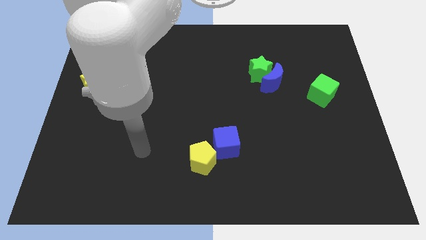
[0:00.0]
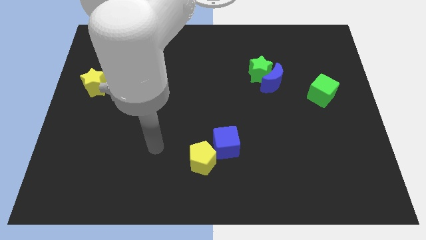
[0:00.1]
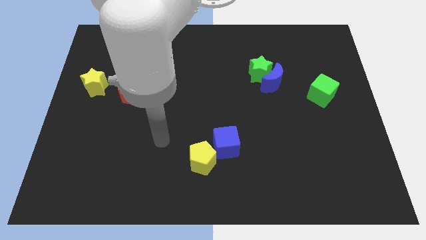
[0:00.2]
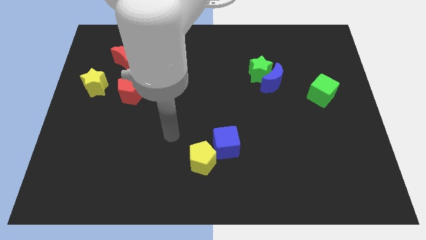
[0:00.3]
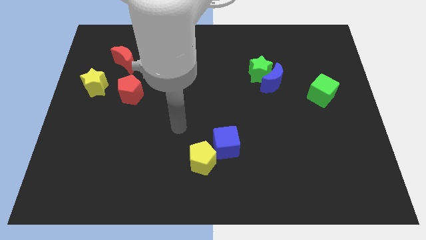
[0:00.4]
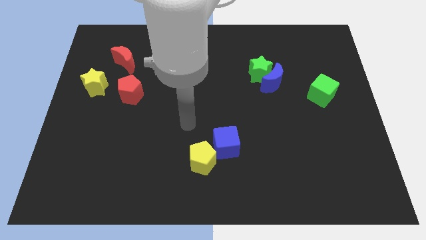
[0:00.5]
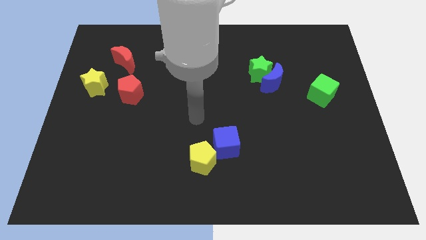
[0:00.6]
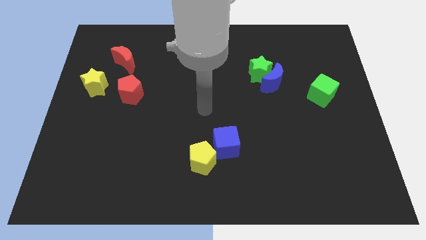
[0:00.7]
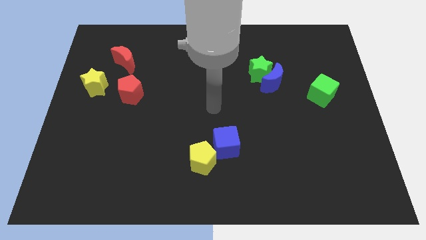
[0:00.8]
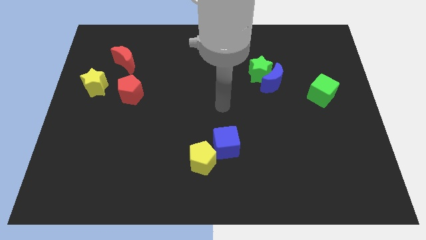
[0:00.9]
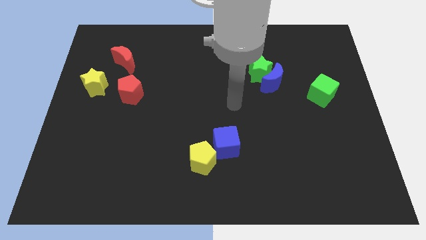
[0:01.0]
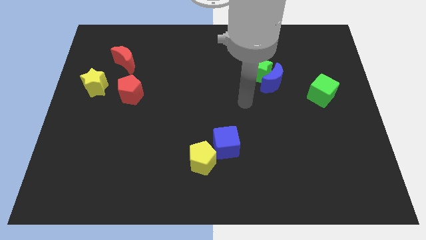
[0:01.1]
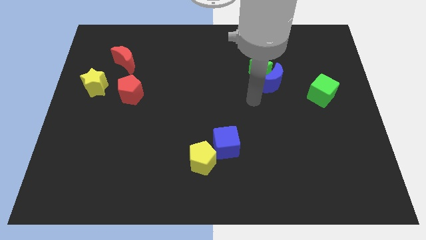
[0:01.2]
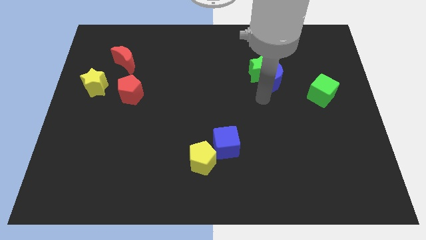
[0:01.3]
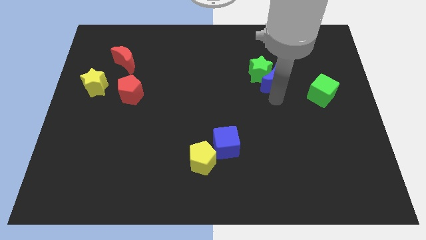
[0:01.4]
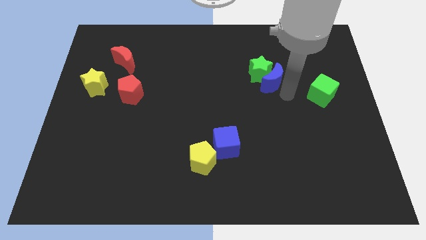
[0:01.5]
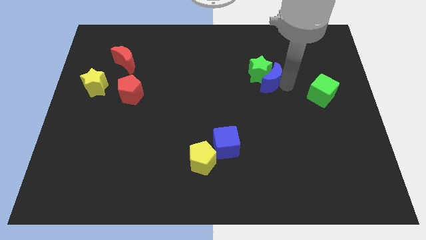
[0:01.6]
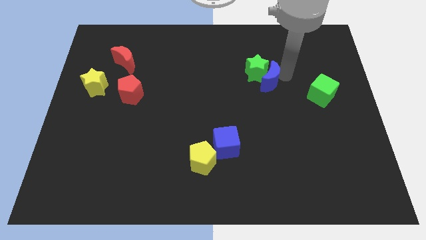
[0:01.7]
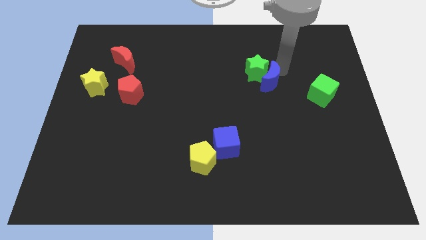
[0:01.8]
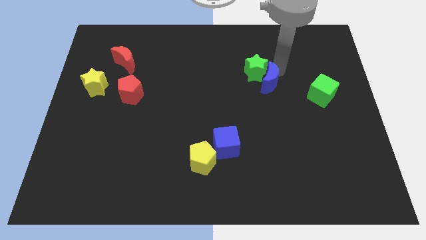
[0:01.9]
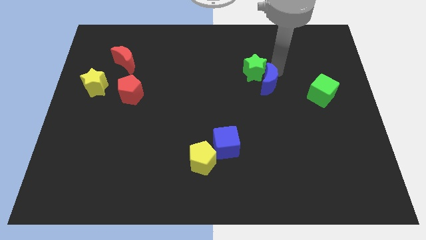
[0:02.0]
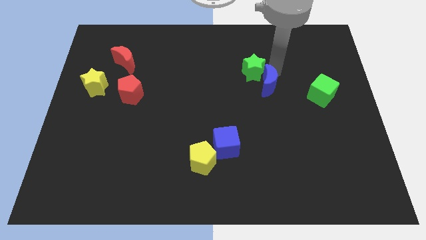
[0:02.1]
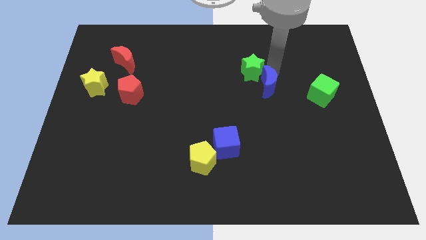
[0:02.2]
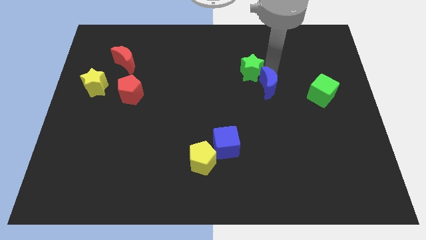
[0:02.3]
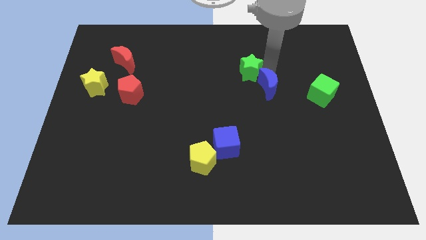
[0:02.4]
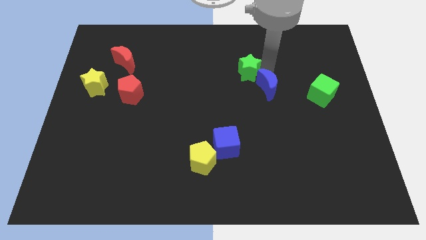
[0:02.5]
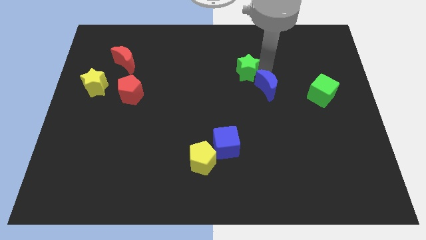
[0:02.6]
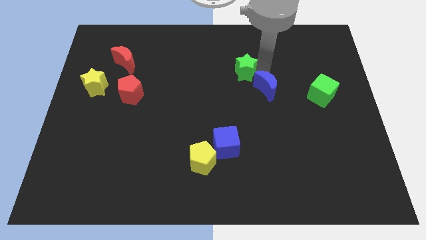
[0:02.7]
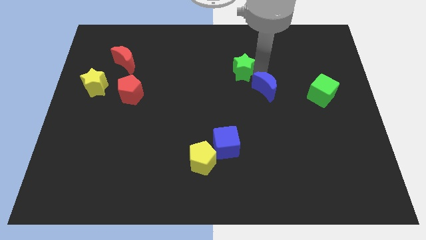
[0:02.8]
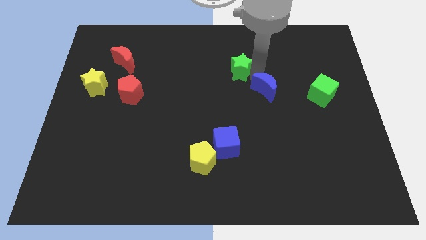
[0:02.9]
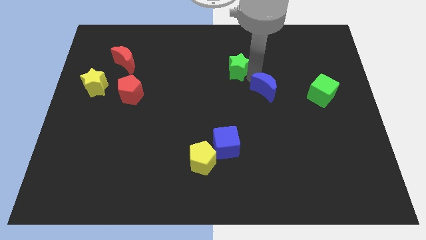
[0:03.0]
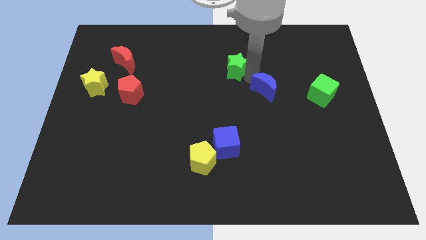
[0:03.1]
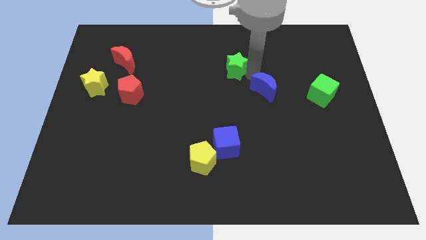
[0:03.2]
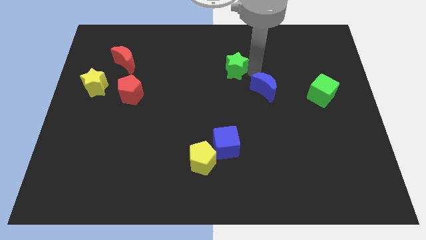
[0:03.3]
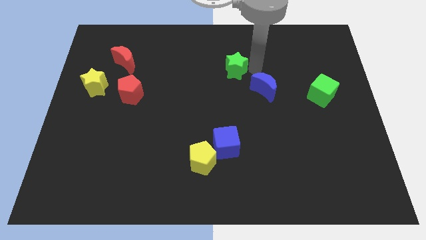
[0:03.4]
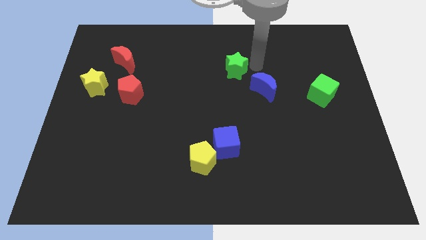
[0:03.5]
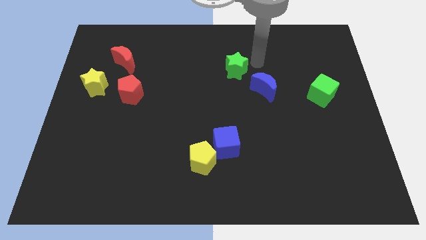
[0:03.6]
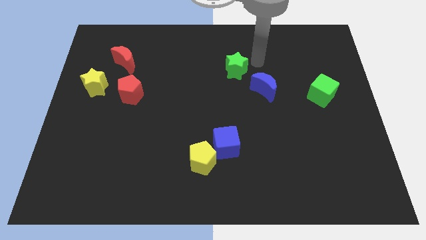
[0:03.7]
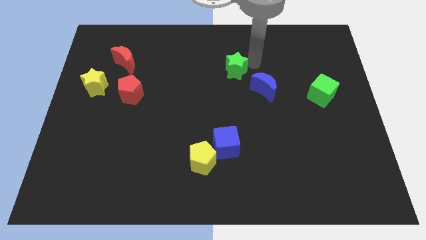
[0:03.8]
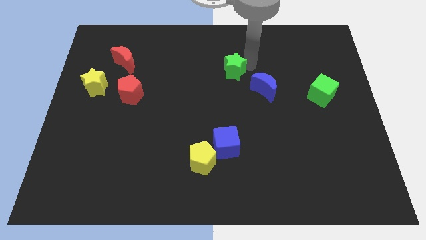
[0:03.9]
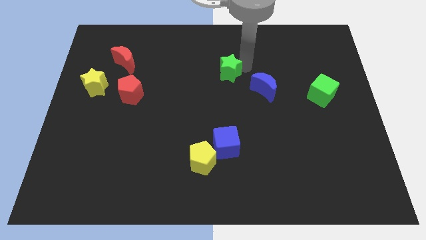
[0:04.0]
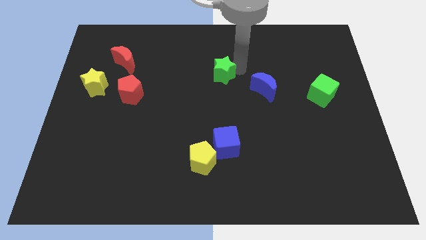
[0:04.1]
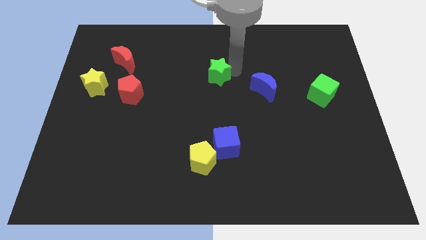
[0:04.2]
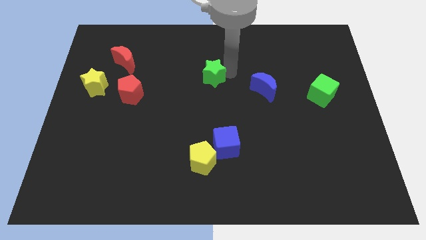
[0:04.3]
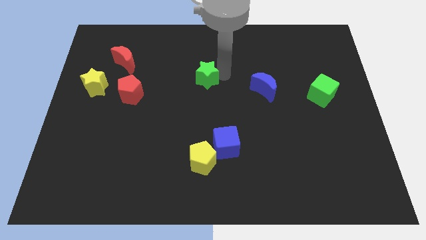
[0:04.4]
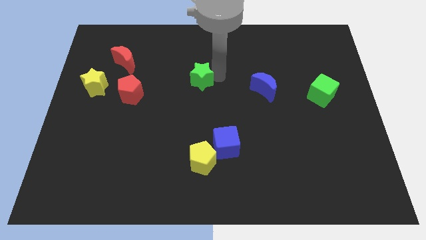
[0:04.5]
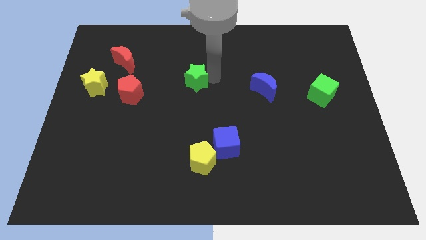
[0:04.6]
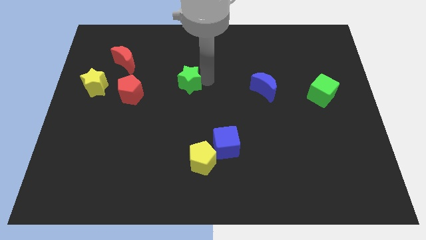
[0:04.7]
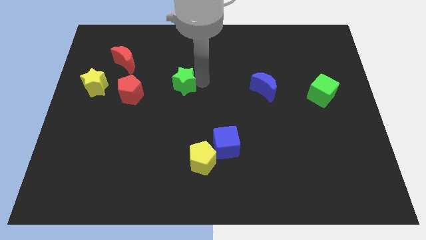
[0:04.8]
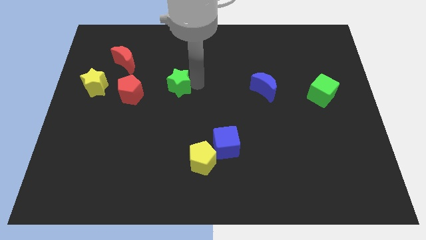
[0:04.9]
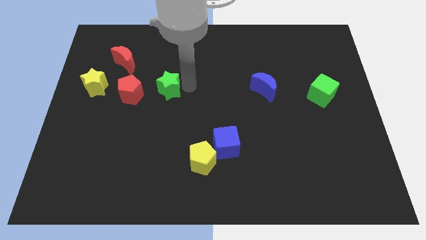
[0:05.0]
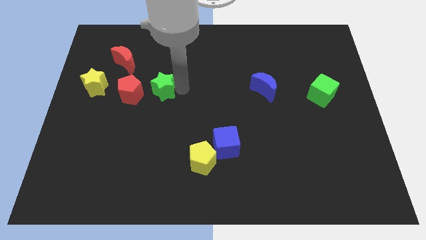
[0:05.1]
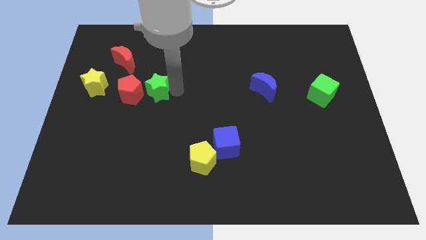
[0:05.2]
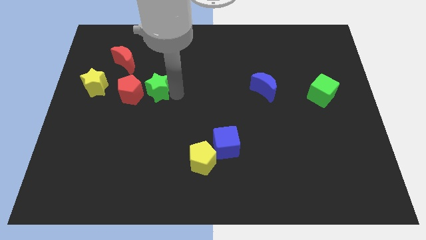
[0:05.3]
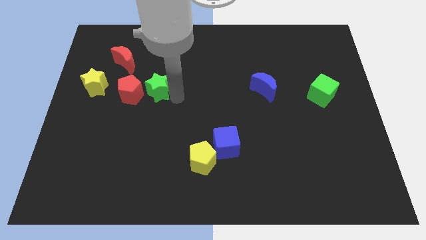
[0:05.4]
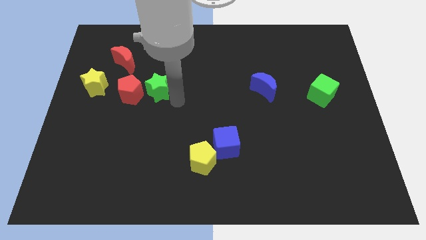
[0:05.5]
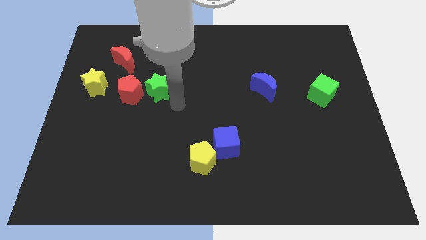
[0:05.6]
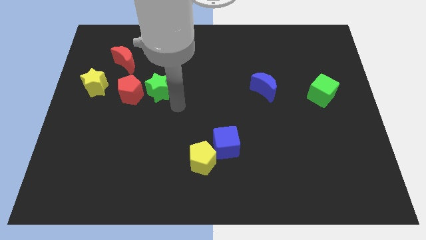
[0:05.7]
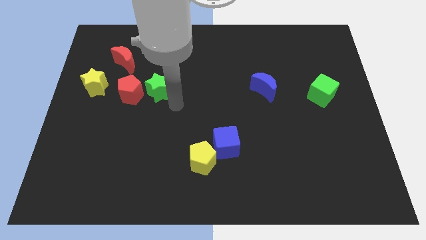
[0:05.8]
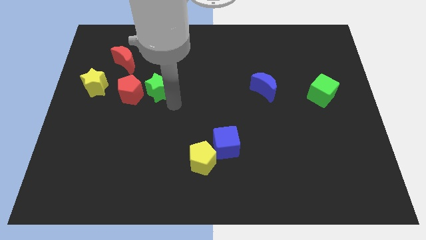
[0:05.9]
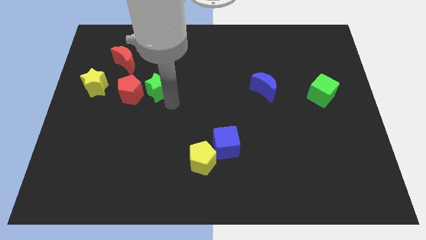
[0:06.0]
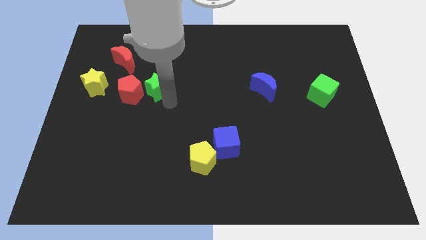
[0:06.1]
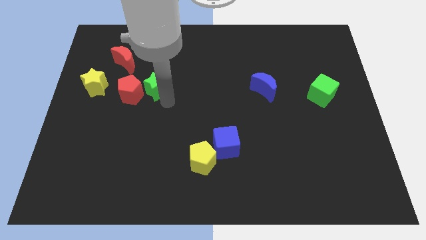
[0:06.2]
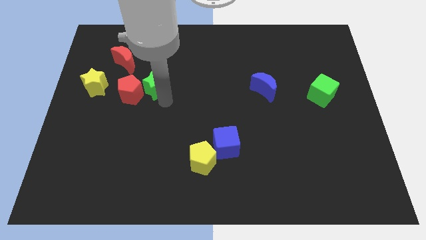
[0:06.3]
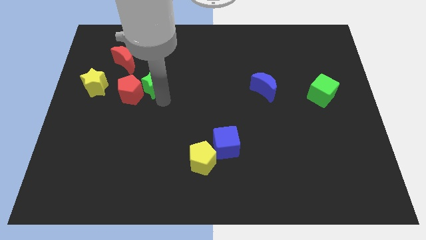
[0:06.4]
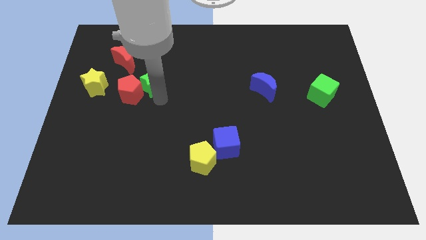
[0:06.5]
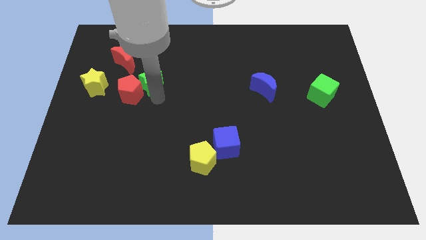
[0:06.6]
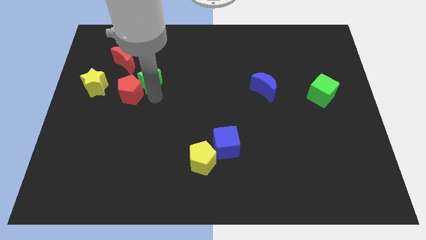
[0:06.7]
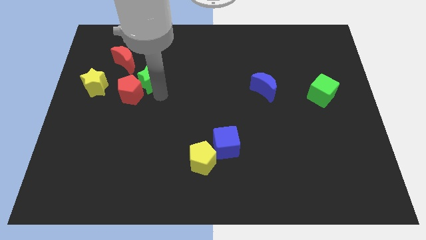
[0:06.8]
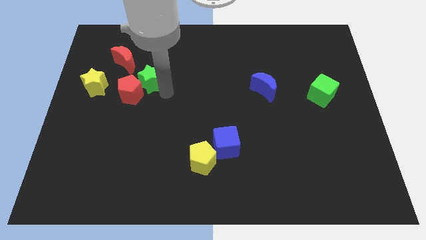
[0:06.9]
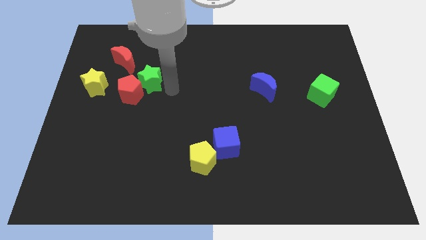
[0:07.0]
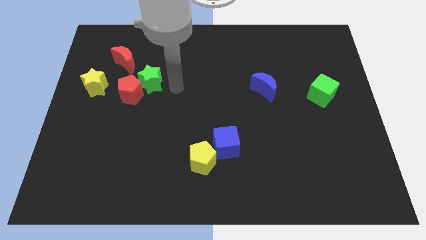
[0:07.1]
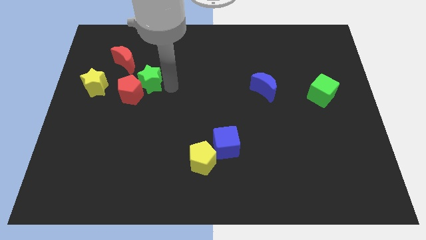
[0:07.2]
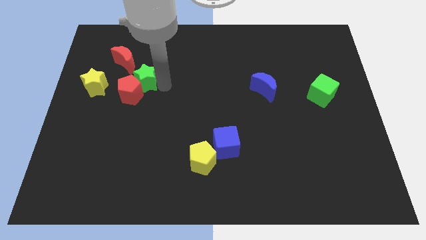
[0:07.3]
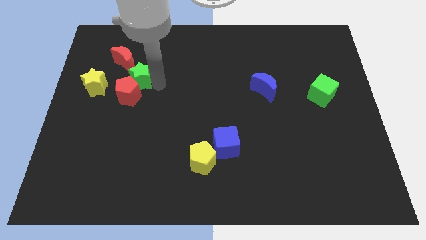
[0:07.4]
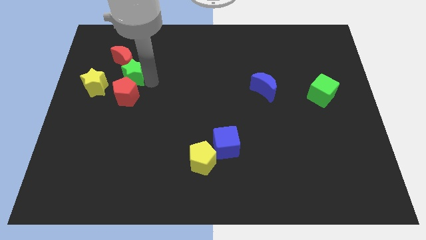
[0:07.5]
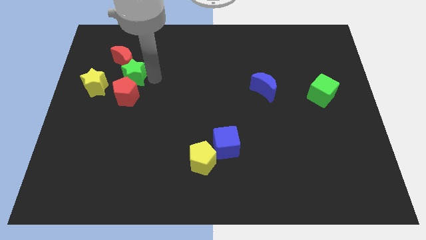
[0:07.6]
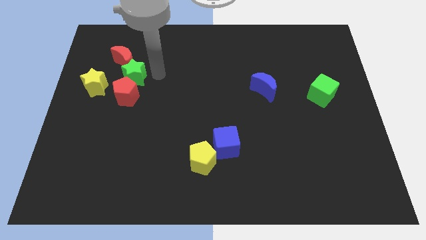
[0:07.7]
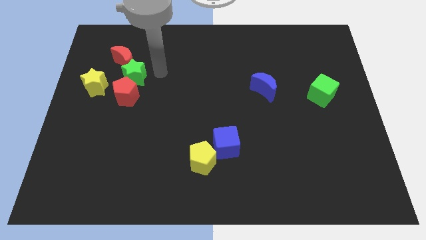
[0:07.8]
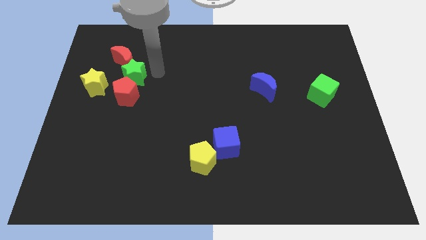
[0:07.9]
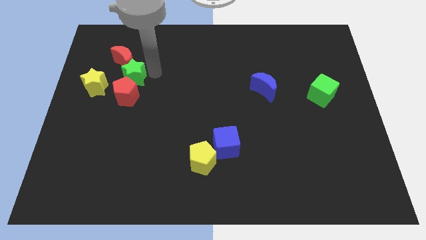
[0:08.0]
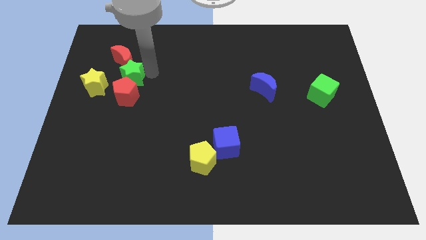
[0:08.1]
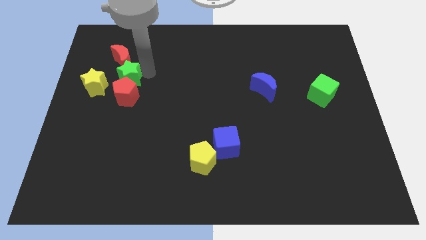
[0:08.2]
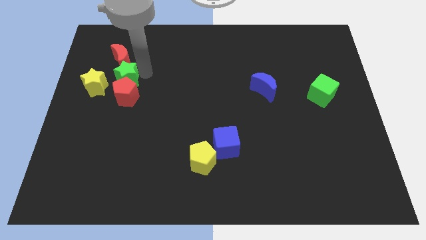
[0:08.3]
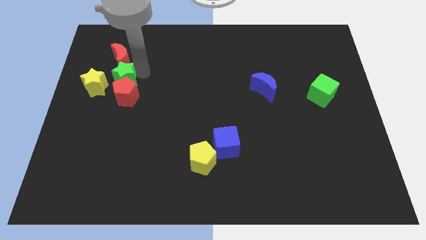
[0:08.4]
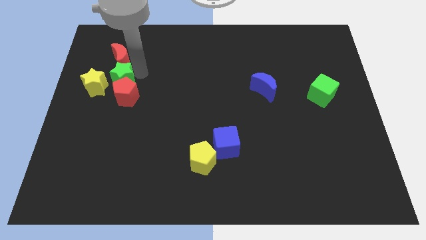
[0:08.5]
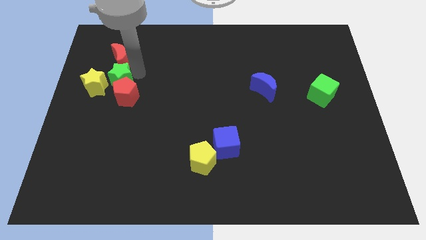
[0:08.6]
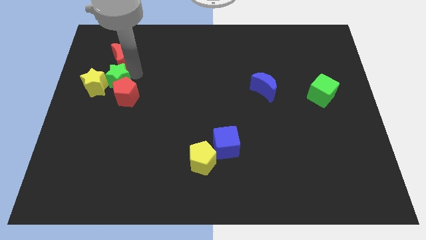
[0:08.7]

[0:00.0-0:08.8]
push the green star to the yellow star
